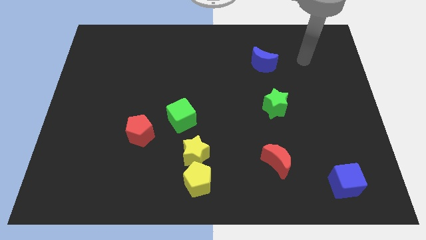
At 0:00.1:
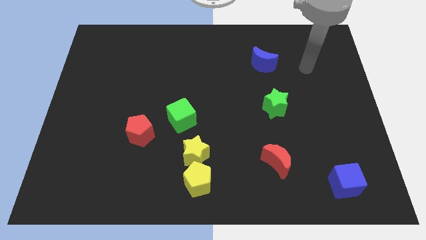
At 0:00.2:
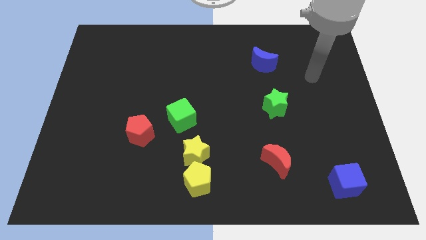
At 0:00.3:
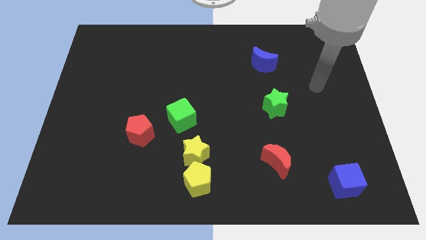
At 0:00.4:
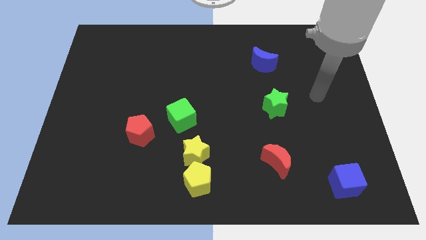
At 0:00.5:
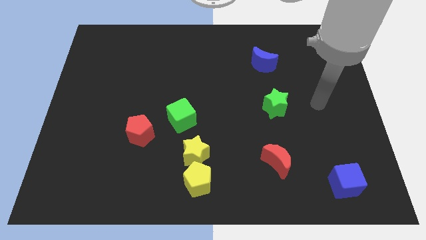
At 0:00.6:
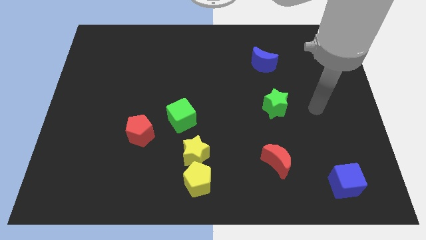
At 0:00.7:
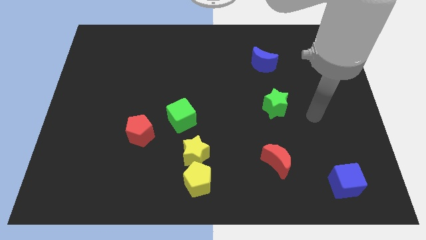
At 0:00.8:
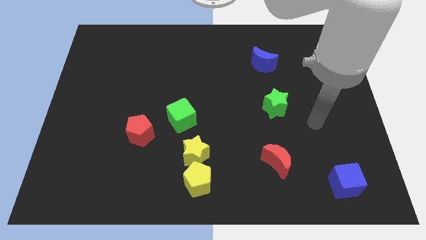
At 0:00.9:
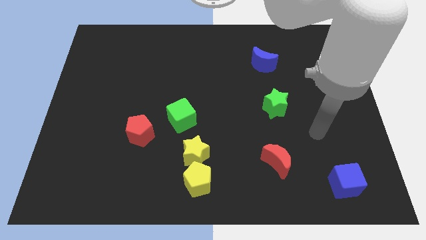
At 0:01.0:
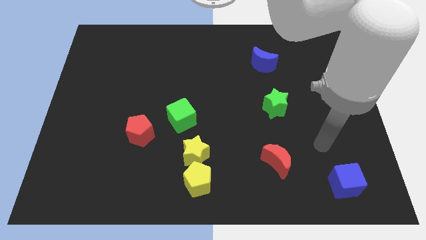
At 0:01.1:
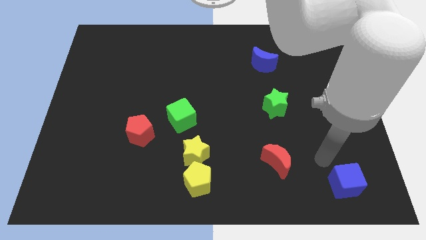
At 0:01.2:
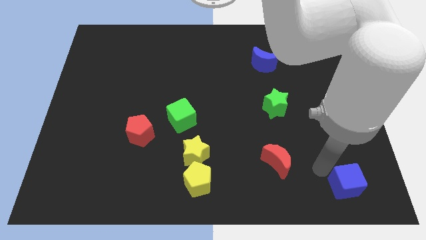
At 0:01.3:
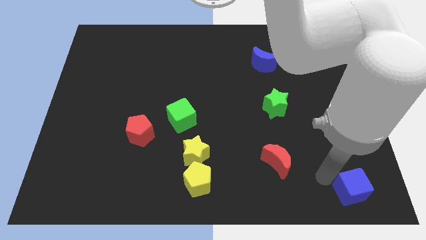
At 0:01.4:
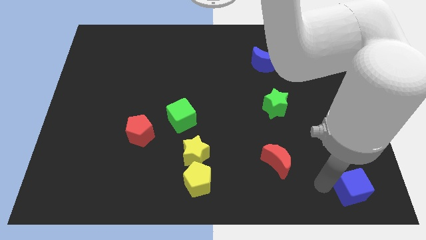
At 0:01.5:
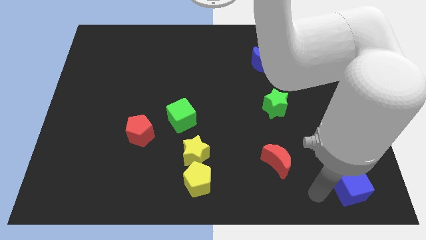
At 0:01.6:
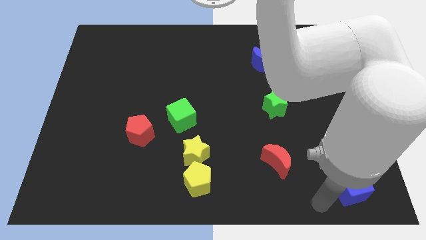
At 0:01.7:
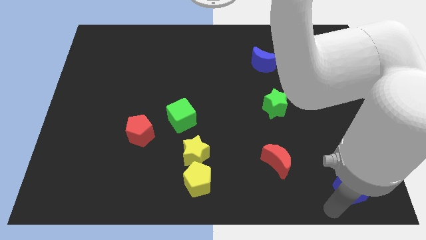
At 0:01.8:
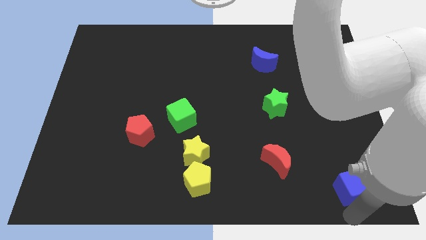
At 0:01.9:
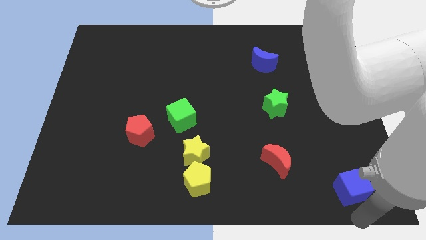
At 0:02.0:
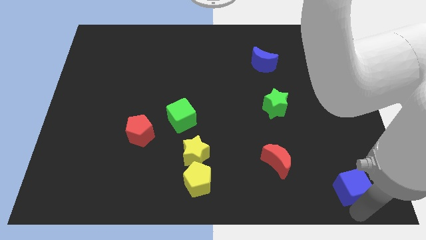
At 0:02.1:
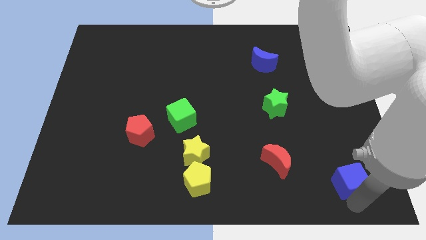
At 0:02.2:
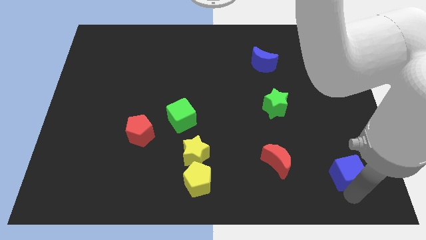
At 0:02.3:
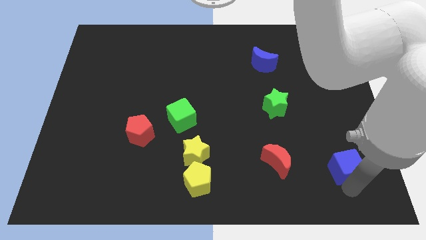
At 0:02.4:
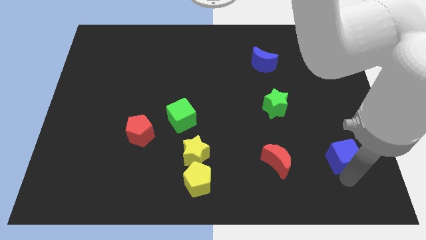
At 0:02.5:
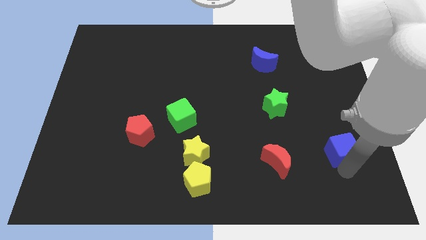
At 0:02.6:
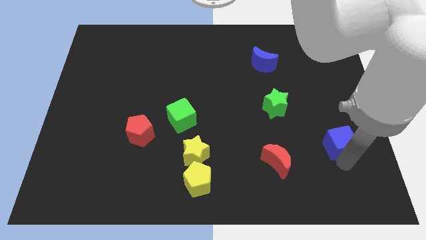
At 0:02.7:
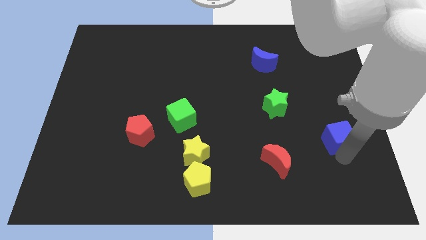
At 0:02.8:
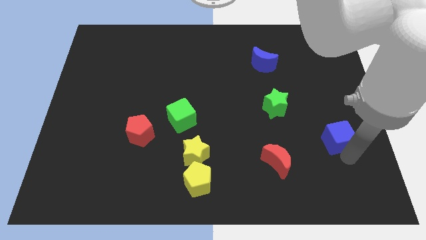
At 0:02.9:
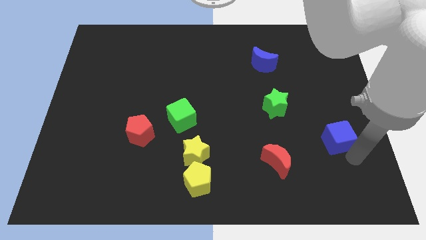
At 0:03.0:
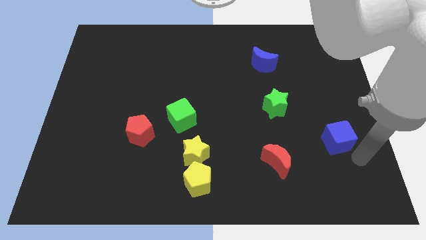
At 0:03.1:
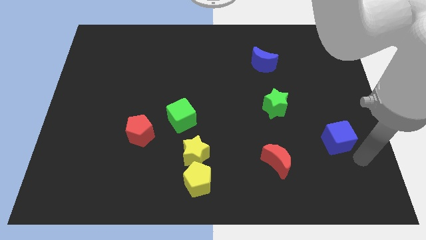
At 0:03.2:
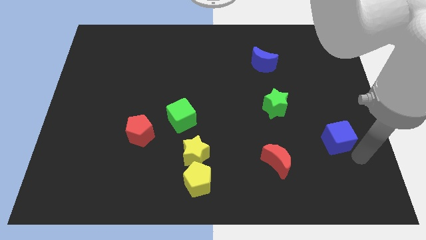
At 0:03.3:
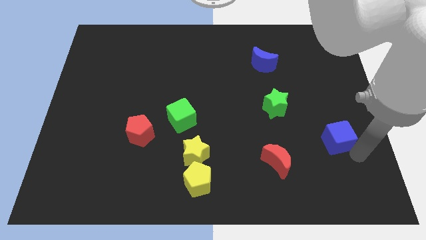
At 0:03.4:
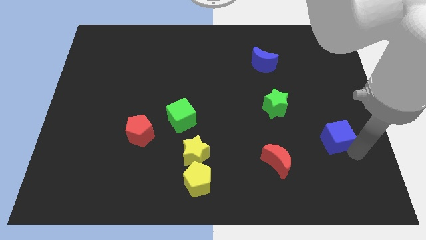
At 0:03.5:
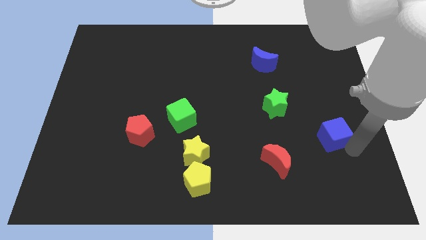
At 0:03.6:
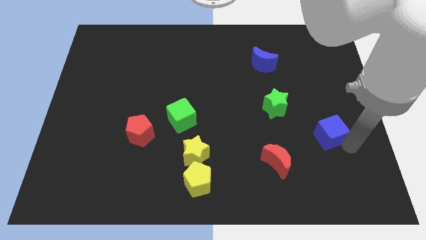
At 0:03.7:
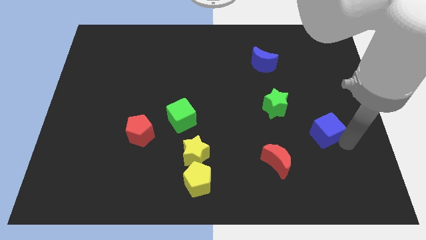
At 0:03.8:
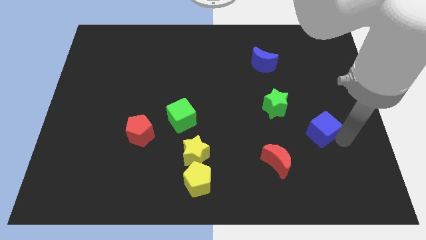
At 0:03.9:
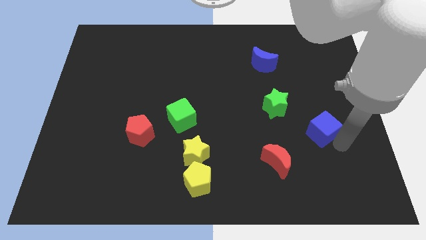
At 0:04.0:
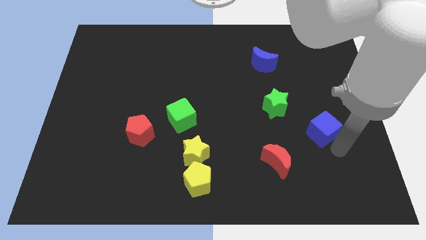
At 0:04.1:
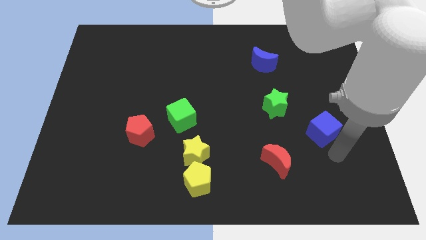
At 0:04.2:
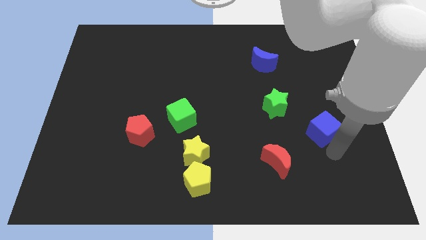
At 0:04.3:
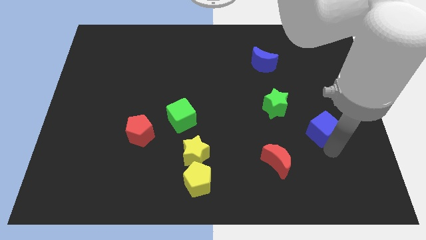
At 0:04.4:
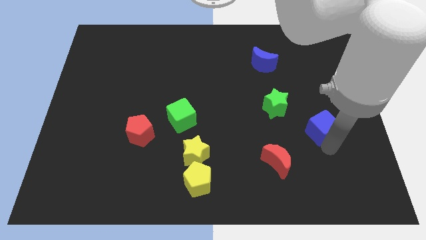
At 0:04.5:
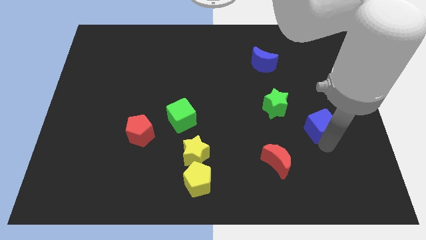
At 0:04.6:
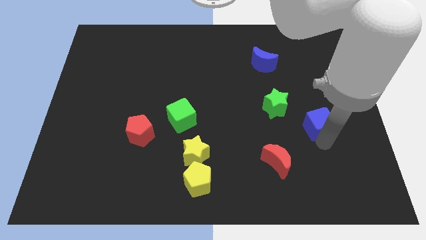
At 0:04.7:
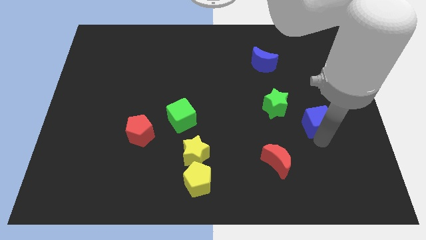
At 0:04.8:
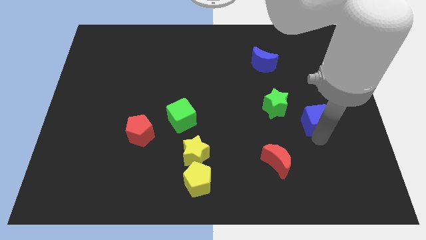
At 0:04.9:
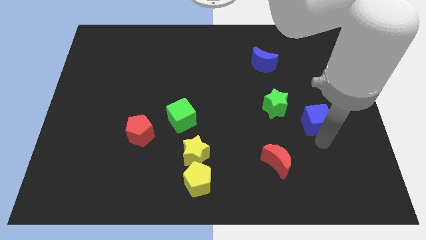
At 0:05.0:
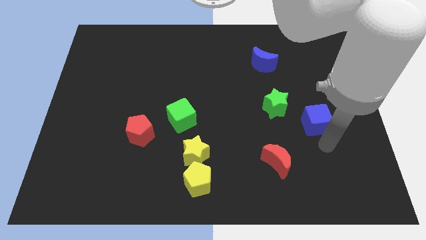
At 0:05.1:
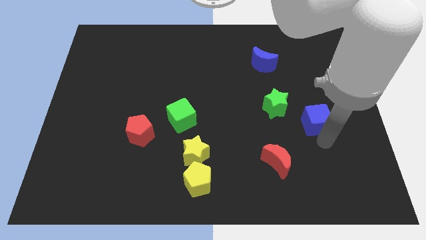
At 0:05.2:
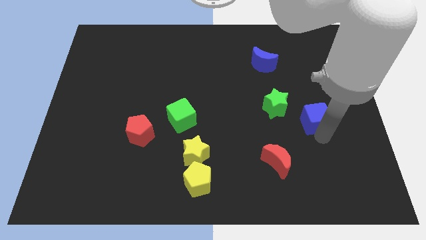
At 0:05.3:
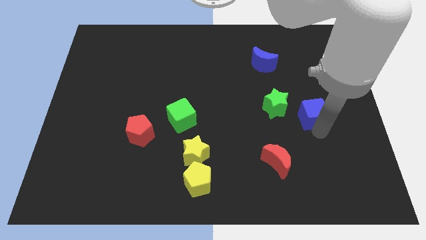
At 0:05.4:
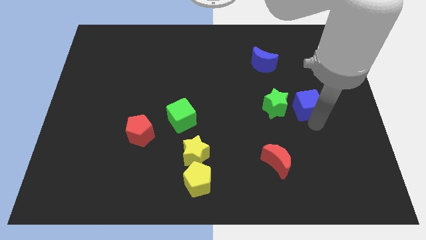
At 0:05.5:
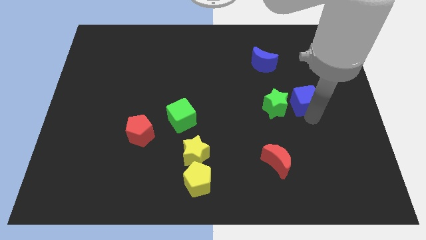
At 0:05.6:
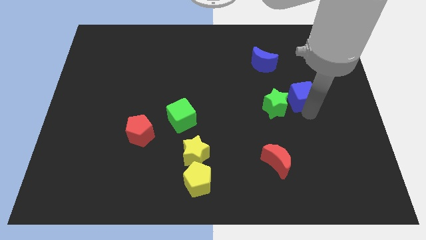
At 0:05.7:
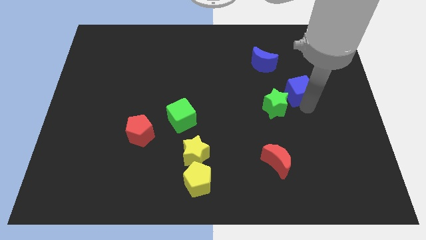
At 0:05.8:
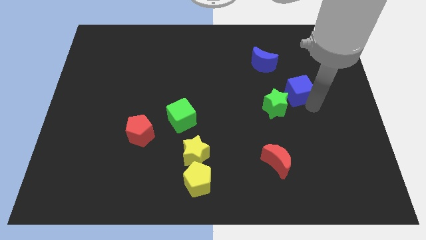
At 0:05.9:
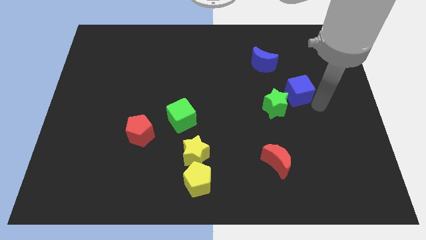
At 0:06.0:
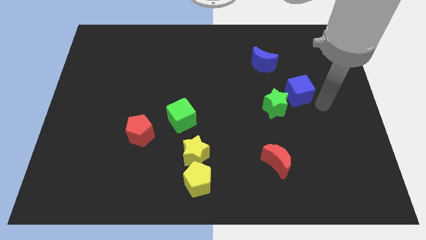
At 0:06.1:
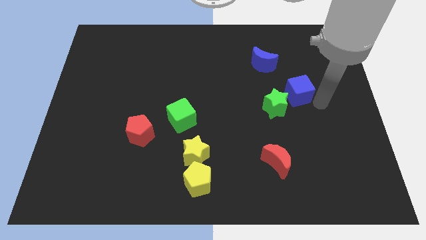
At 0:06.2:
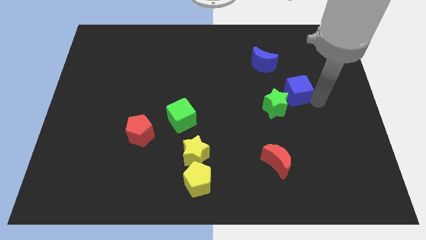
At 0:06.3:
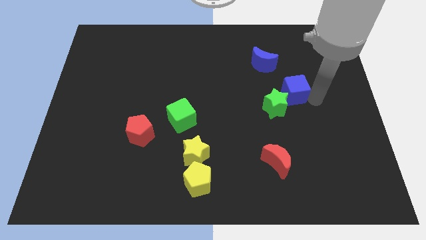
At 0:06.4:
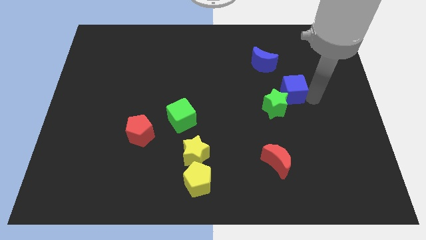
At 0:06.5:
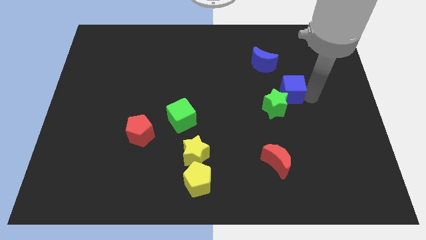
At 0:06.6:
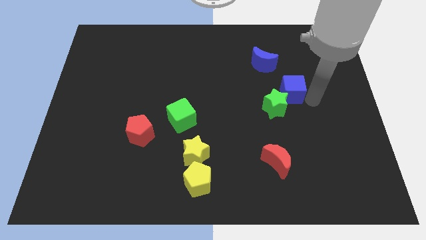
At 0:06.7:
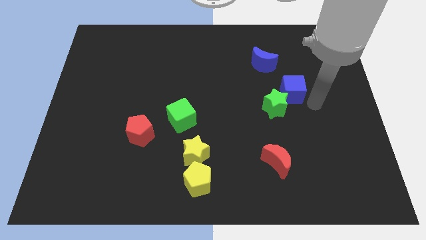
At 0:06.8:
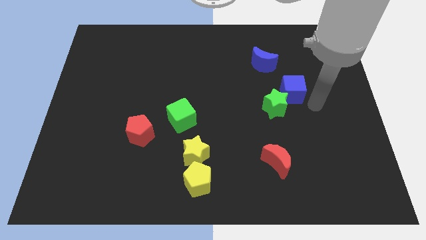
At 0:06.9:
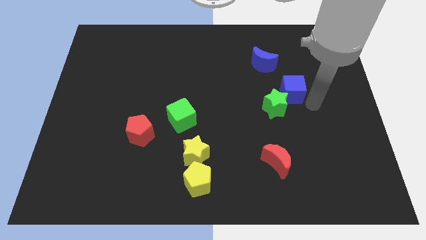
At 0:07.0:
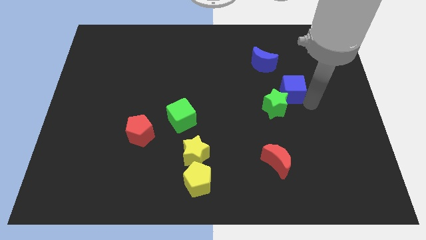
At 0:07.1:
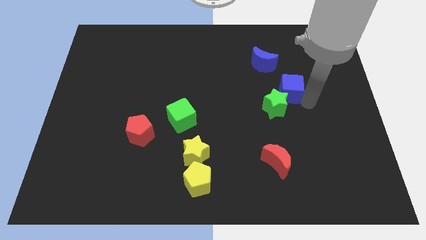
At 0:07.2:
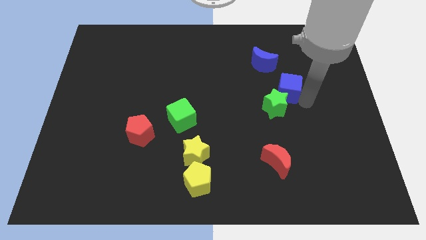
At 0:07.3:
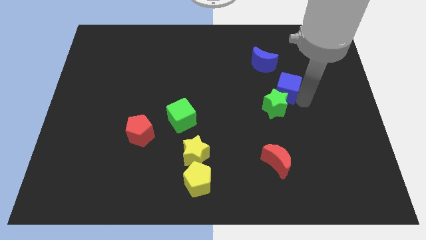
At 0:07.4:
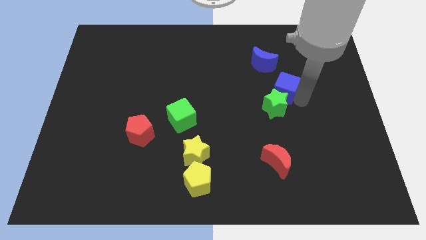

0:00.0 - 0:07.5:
slide the blue cube below the blue moon
